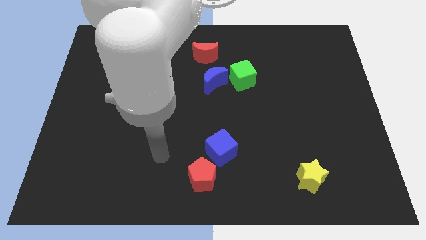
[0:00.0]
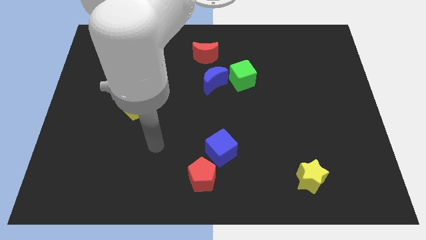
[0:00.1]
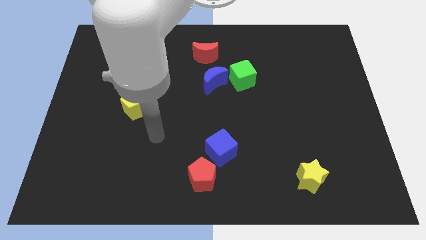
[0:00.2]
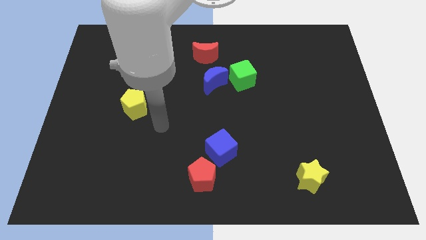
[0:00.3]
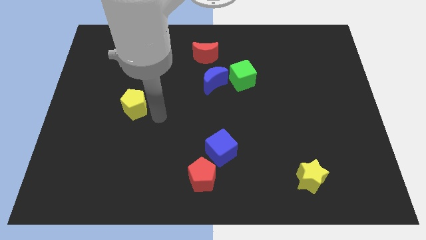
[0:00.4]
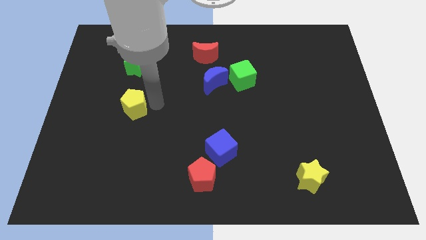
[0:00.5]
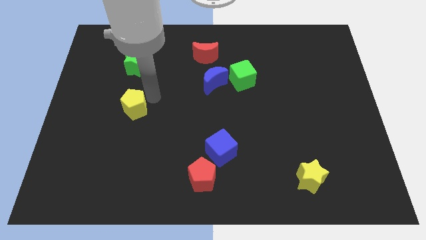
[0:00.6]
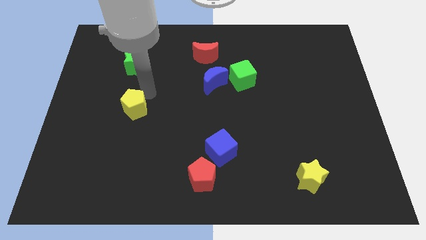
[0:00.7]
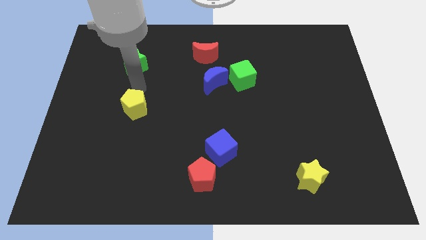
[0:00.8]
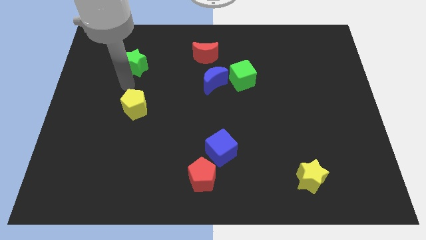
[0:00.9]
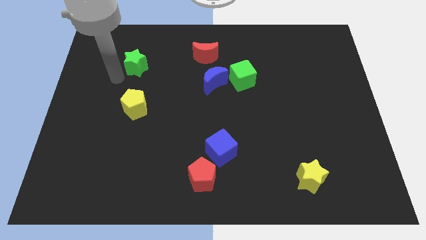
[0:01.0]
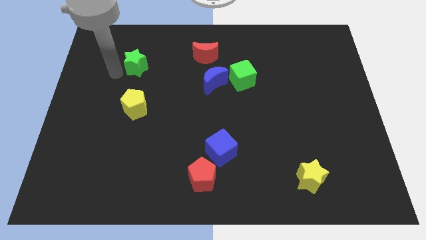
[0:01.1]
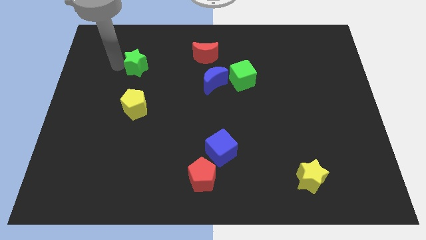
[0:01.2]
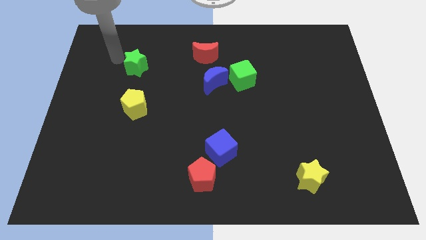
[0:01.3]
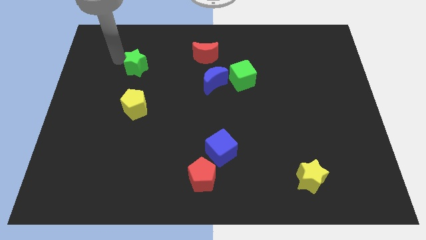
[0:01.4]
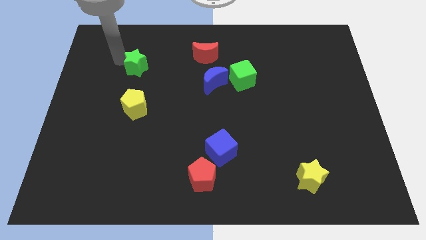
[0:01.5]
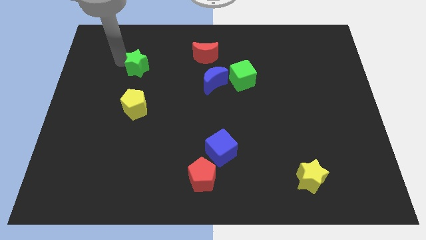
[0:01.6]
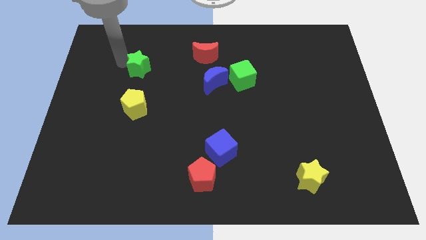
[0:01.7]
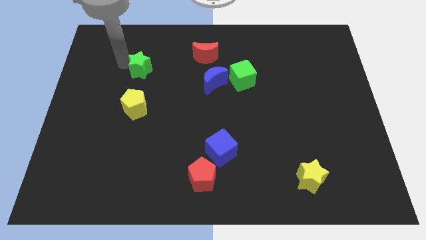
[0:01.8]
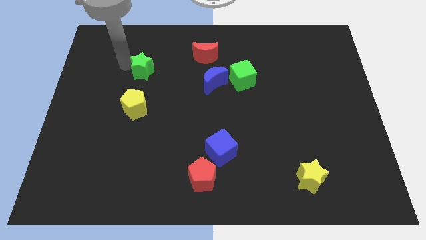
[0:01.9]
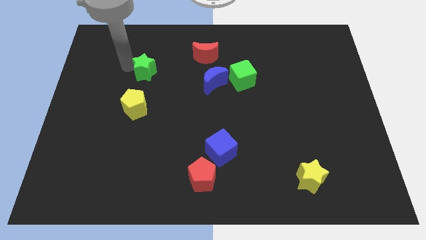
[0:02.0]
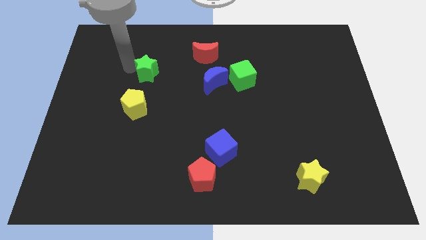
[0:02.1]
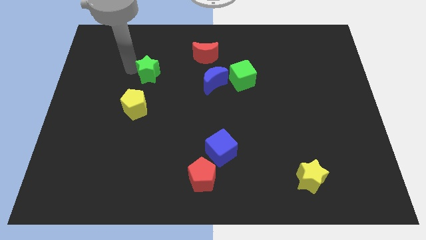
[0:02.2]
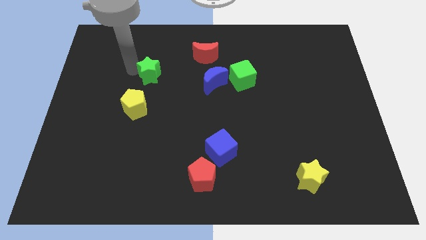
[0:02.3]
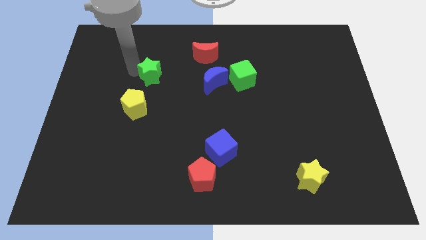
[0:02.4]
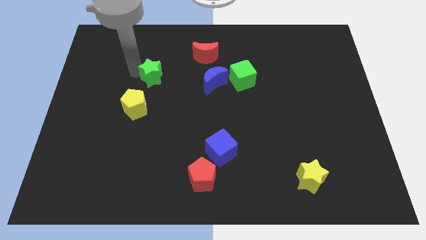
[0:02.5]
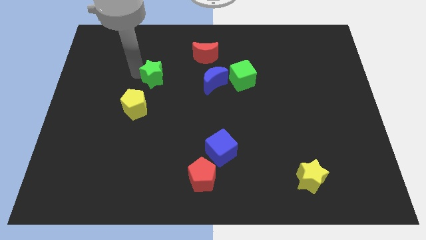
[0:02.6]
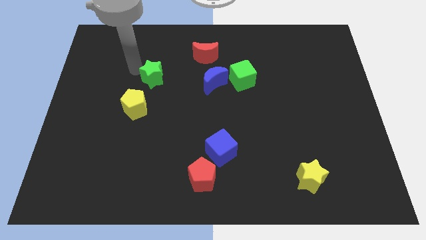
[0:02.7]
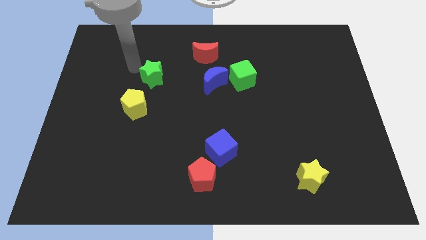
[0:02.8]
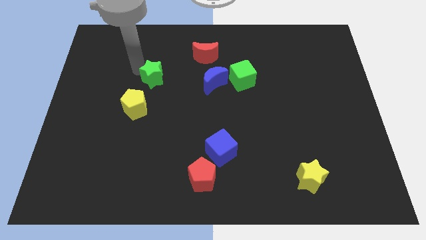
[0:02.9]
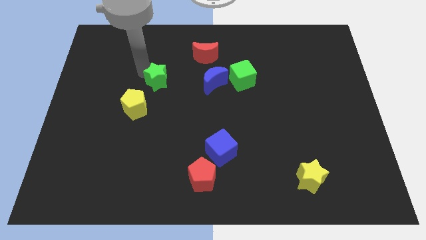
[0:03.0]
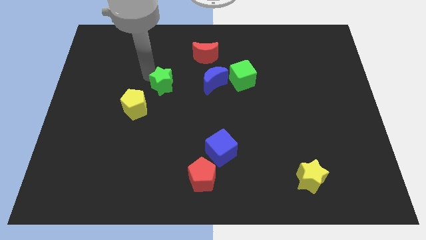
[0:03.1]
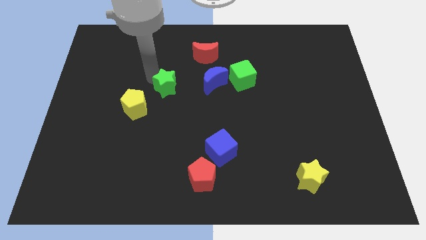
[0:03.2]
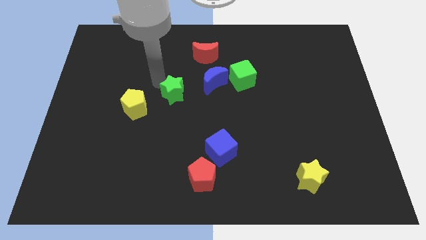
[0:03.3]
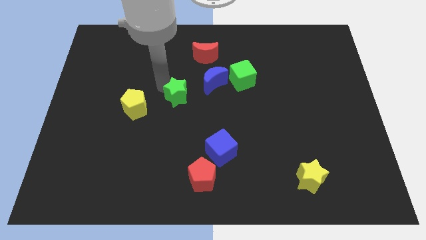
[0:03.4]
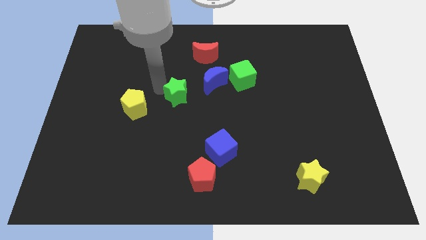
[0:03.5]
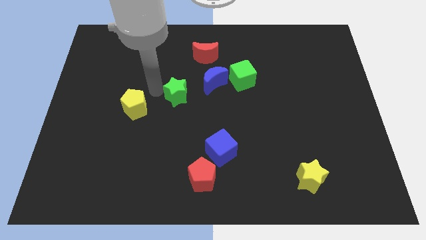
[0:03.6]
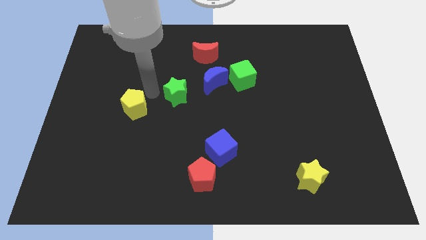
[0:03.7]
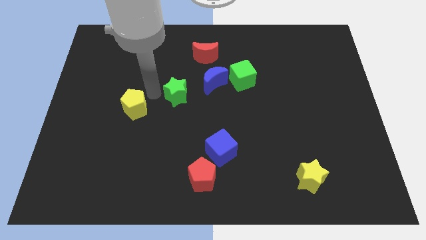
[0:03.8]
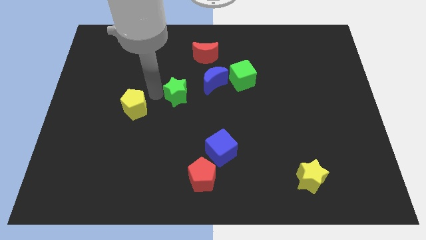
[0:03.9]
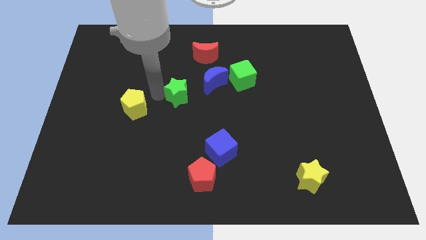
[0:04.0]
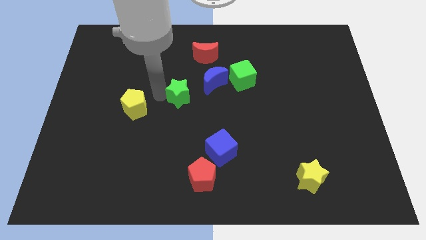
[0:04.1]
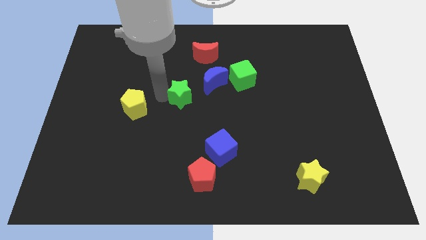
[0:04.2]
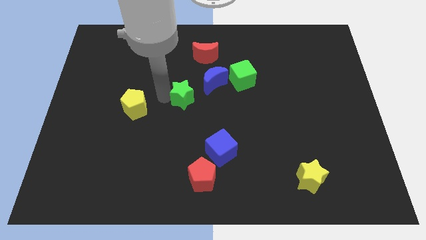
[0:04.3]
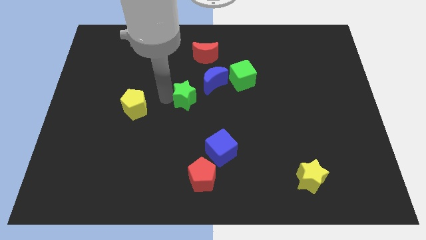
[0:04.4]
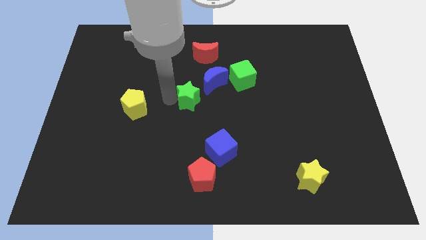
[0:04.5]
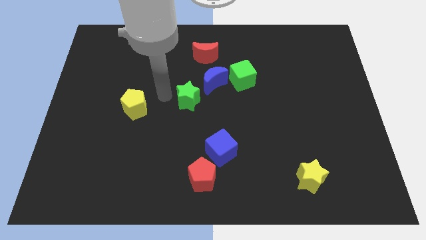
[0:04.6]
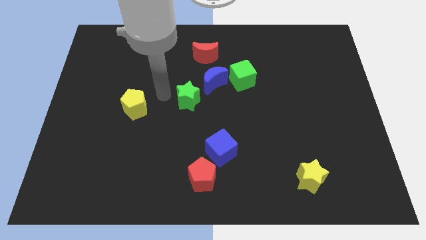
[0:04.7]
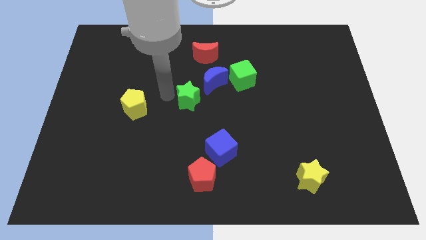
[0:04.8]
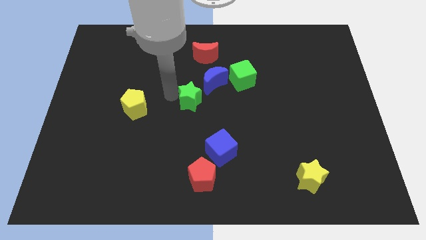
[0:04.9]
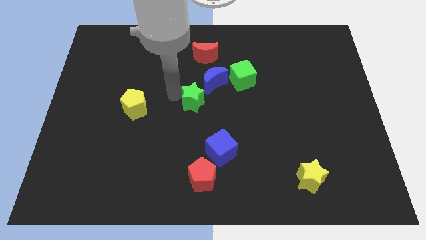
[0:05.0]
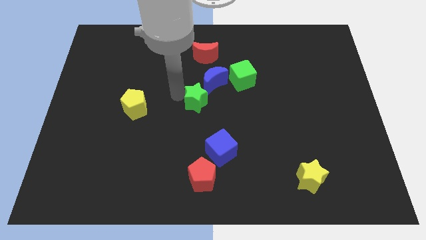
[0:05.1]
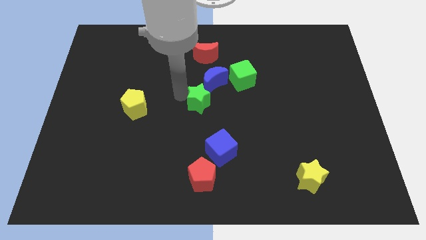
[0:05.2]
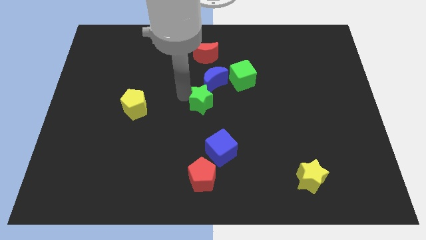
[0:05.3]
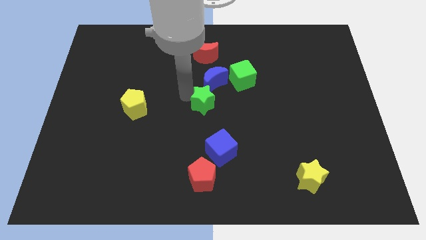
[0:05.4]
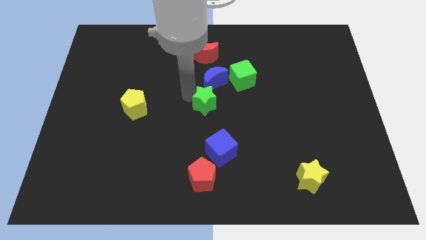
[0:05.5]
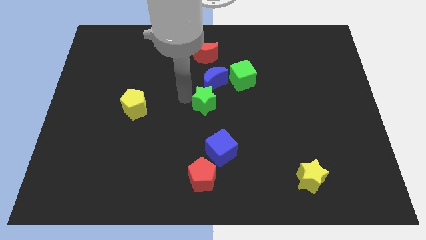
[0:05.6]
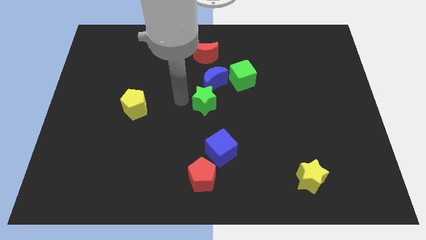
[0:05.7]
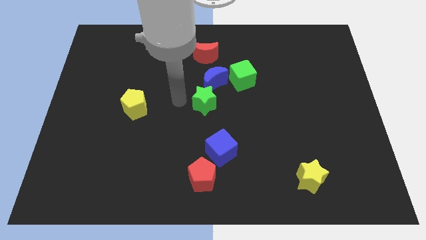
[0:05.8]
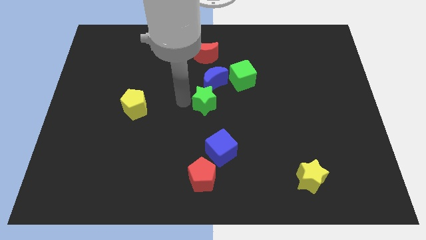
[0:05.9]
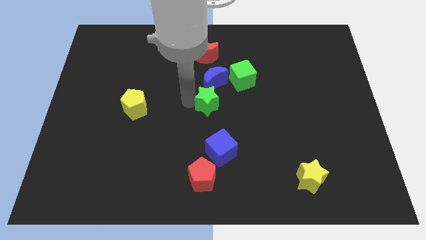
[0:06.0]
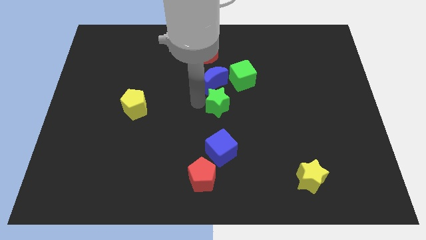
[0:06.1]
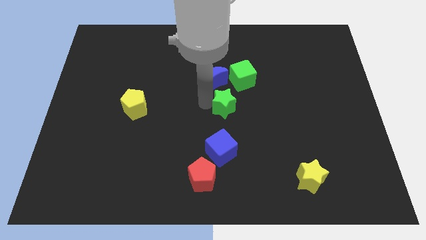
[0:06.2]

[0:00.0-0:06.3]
slide the green star to the bottom side of the green cube

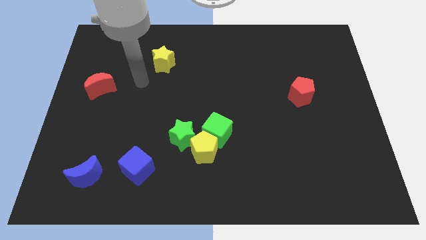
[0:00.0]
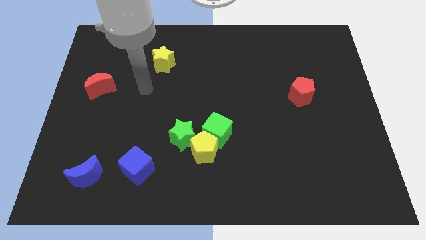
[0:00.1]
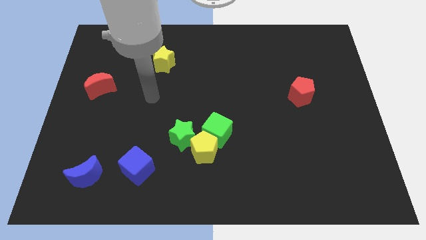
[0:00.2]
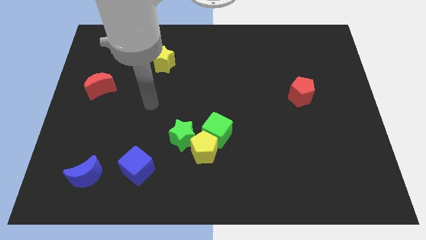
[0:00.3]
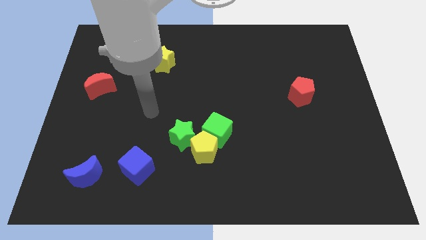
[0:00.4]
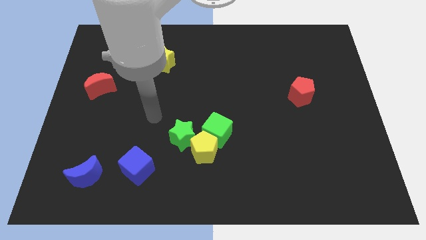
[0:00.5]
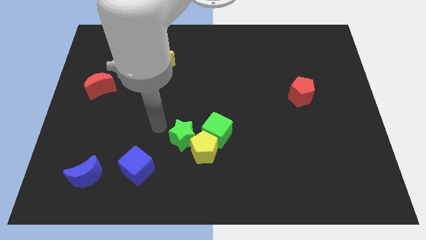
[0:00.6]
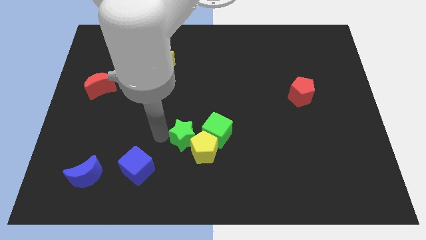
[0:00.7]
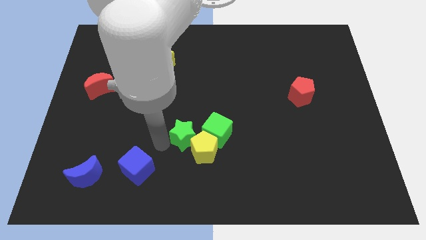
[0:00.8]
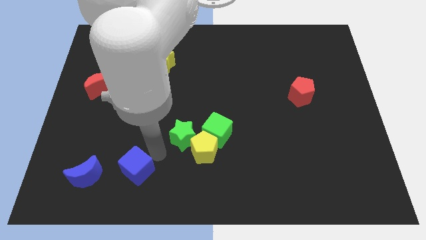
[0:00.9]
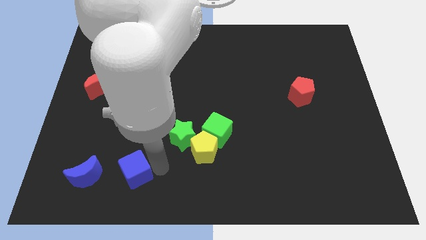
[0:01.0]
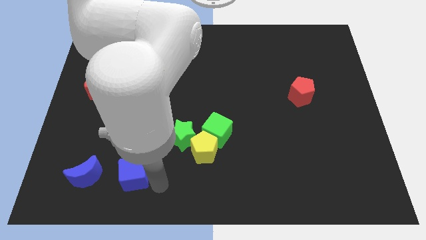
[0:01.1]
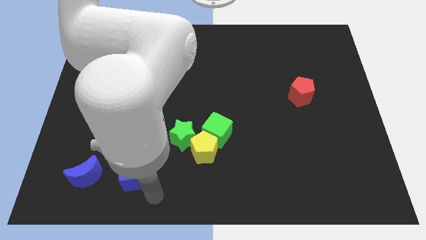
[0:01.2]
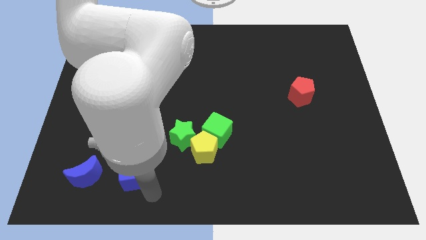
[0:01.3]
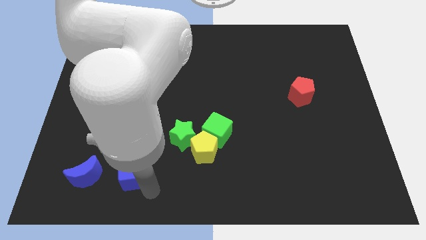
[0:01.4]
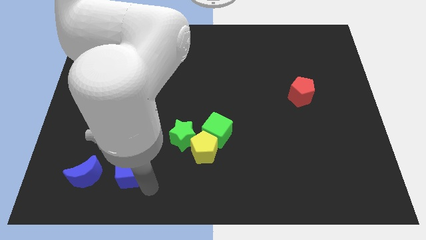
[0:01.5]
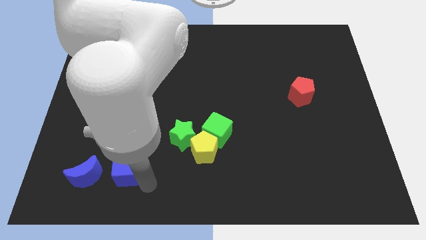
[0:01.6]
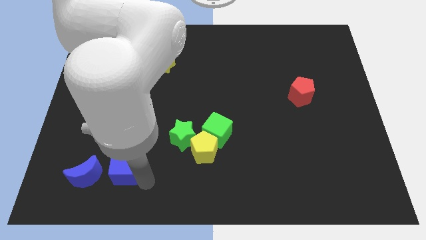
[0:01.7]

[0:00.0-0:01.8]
push the blue cube to the top right side of the blue moon
